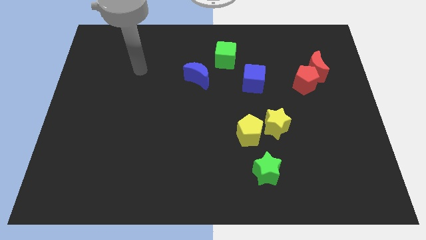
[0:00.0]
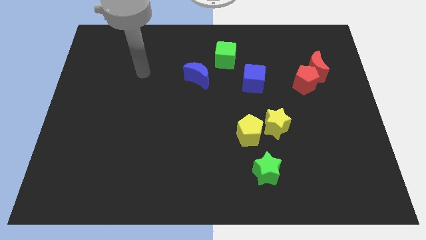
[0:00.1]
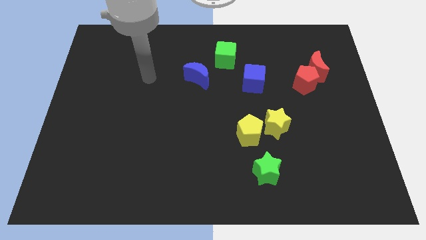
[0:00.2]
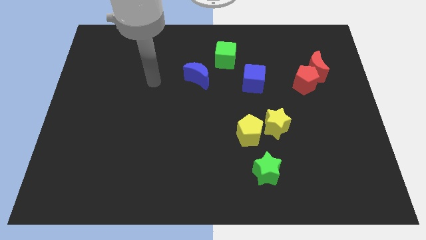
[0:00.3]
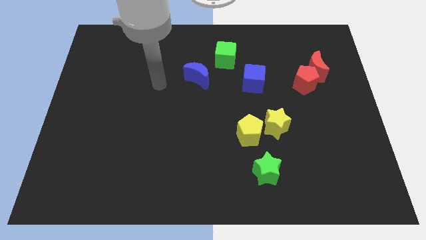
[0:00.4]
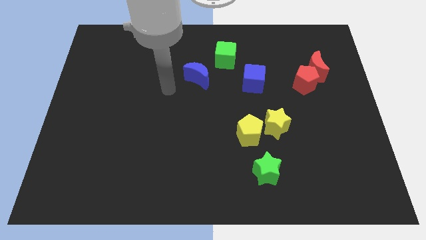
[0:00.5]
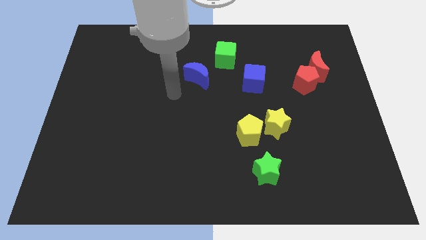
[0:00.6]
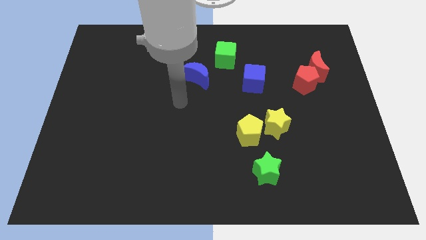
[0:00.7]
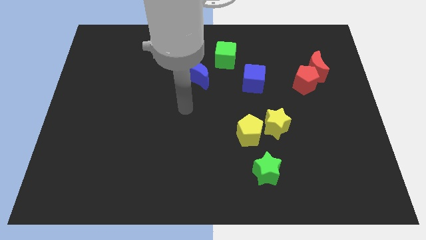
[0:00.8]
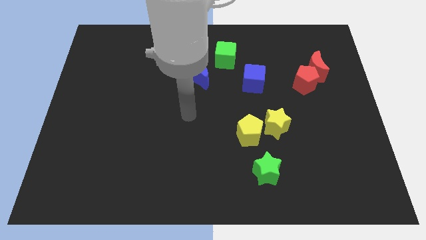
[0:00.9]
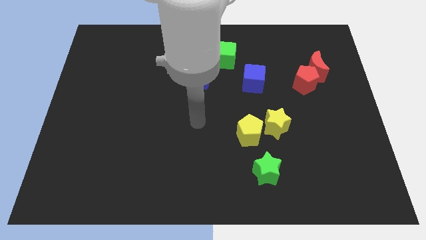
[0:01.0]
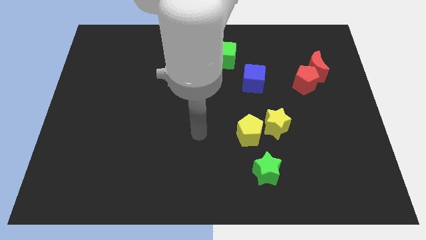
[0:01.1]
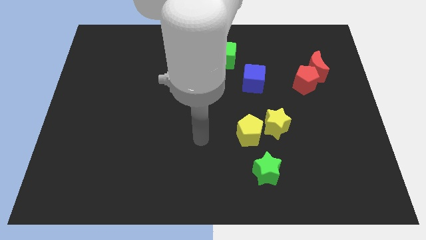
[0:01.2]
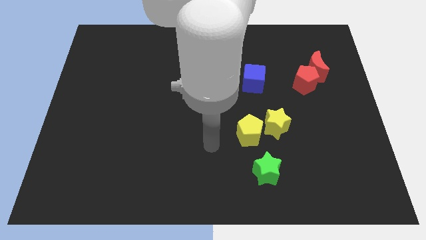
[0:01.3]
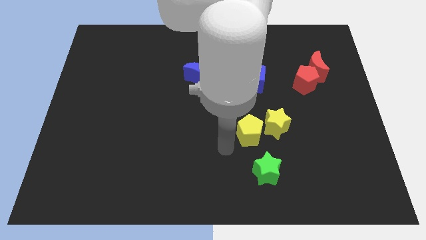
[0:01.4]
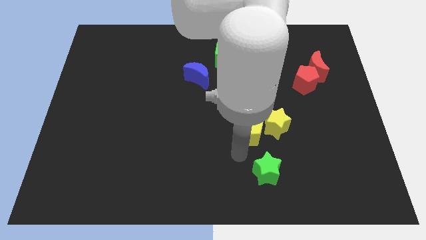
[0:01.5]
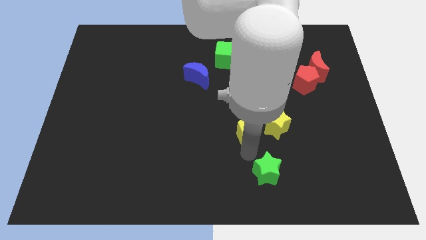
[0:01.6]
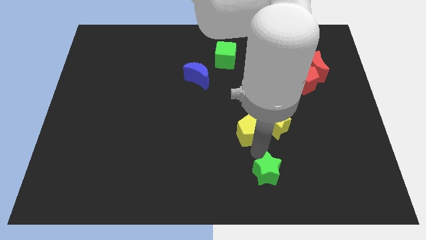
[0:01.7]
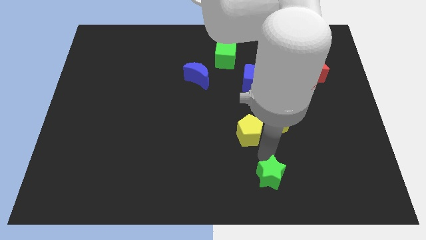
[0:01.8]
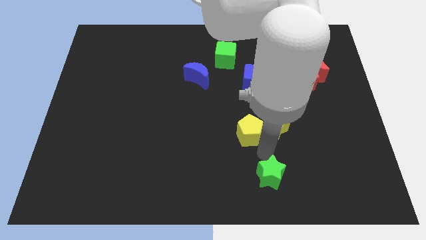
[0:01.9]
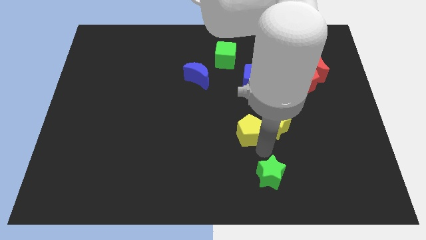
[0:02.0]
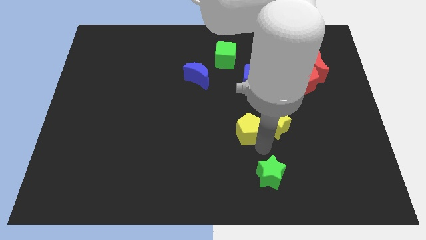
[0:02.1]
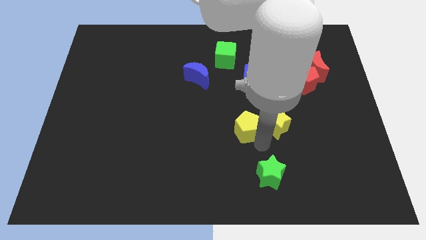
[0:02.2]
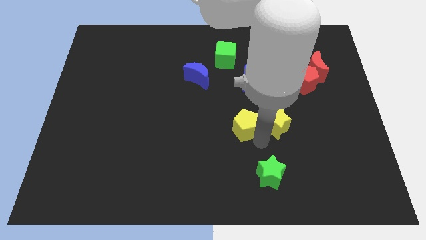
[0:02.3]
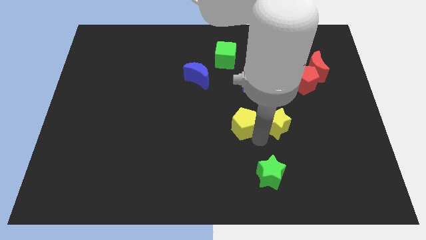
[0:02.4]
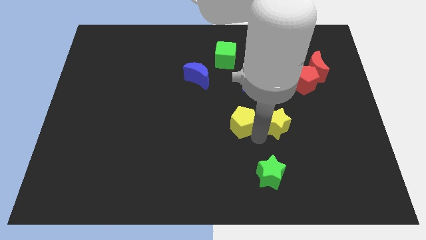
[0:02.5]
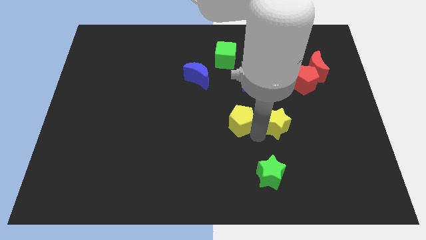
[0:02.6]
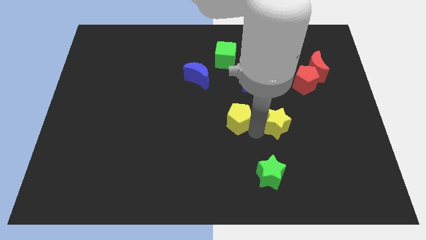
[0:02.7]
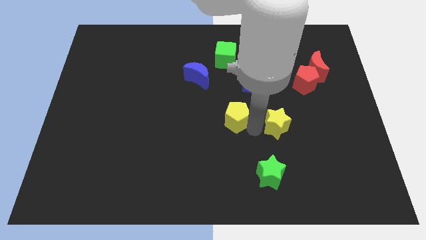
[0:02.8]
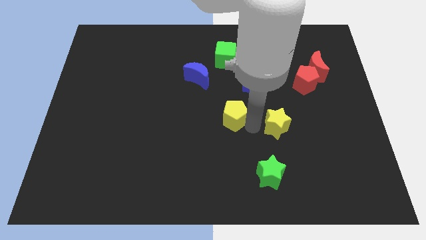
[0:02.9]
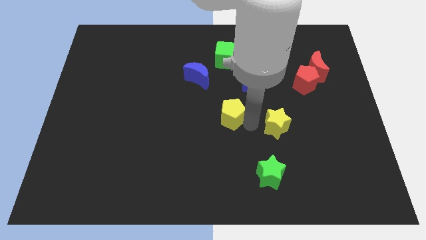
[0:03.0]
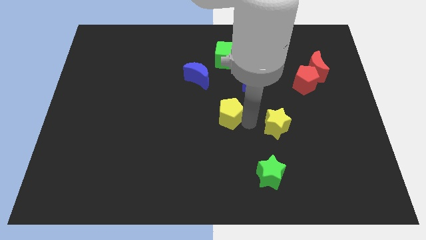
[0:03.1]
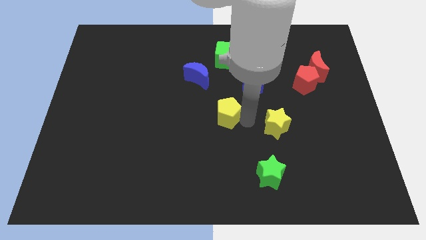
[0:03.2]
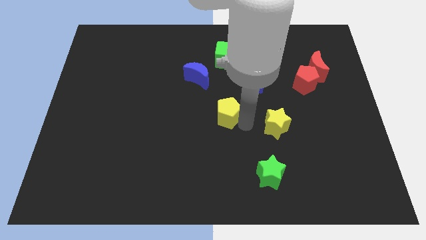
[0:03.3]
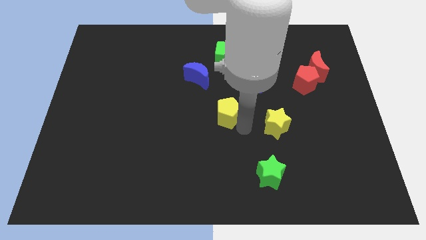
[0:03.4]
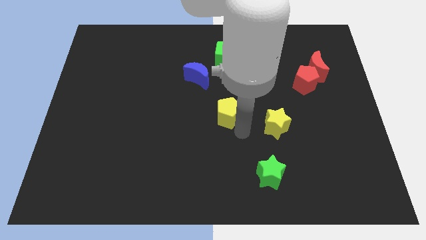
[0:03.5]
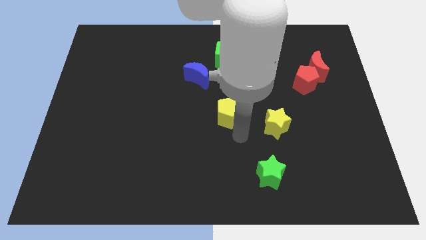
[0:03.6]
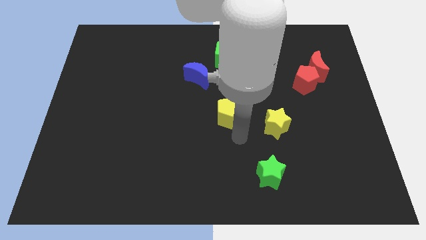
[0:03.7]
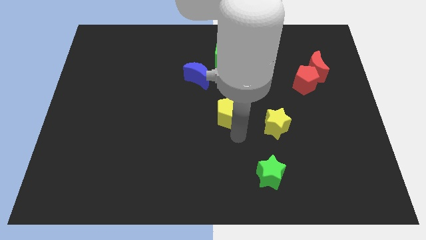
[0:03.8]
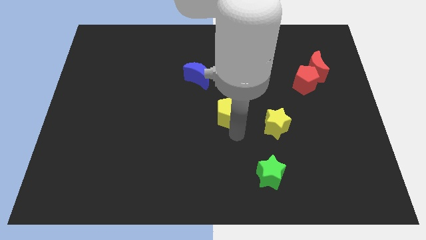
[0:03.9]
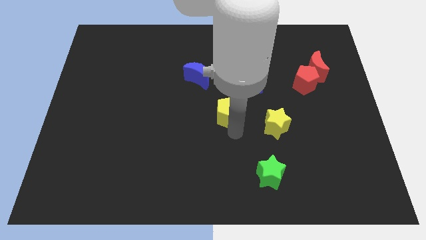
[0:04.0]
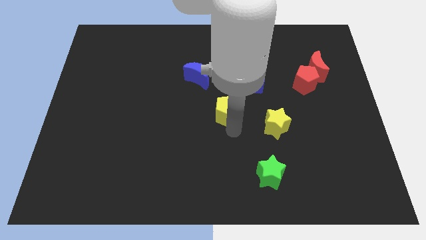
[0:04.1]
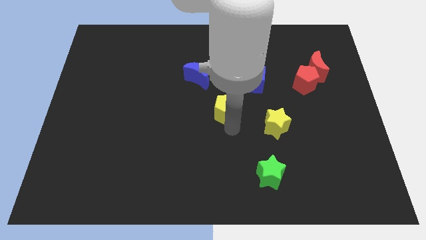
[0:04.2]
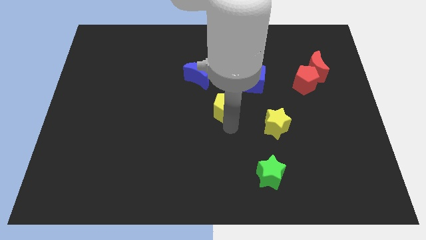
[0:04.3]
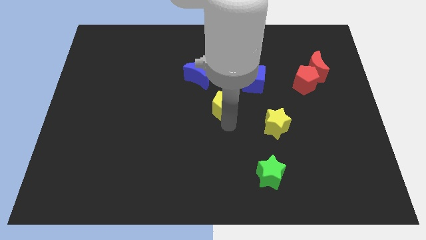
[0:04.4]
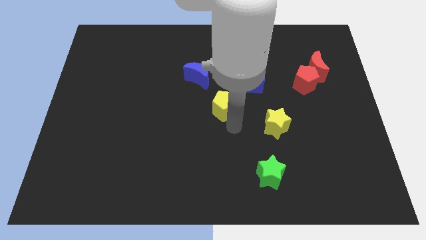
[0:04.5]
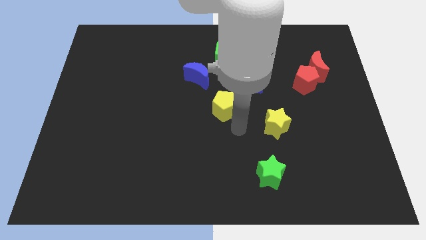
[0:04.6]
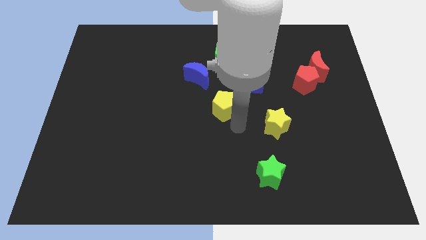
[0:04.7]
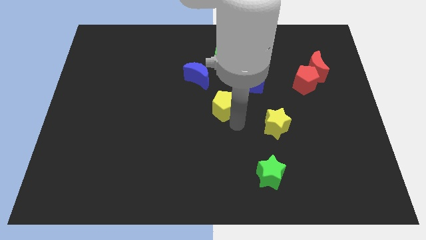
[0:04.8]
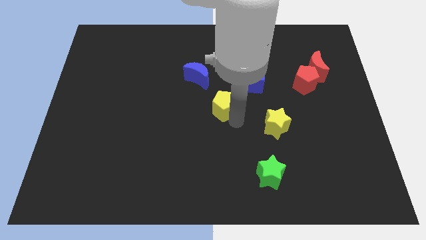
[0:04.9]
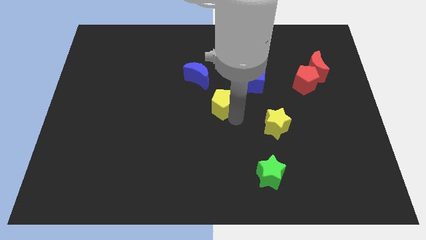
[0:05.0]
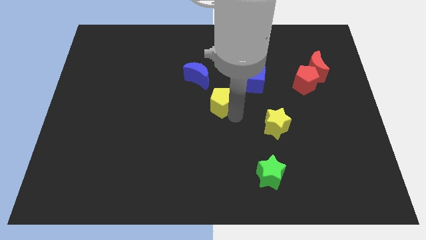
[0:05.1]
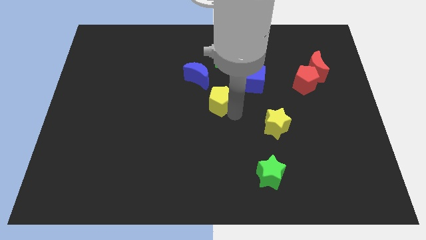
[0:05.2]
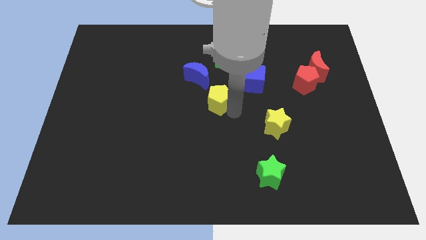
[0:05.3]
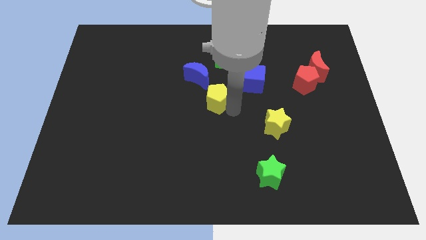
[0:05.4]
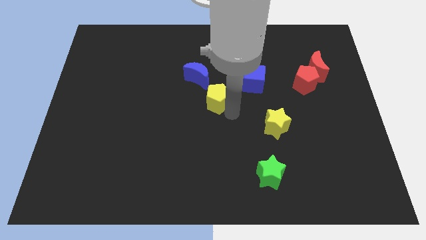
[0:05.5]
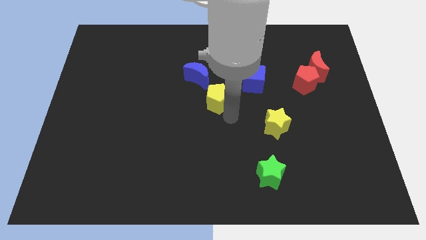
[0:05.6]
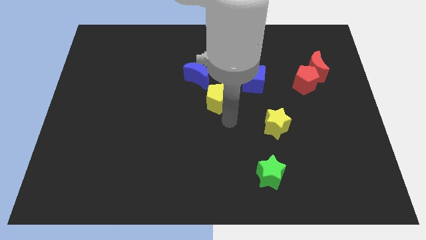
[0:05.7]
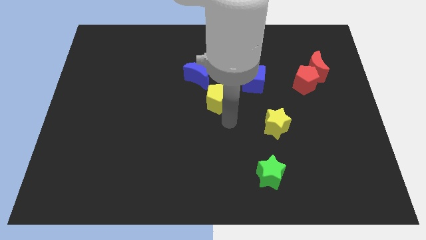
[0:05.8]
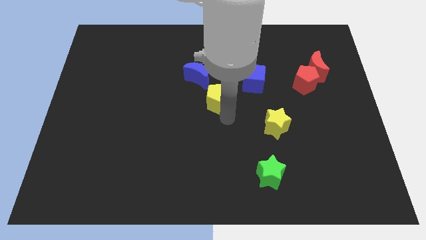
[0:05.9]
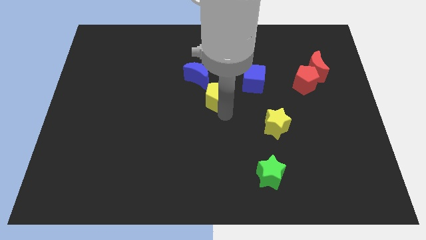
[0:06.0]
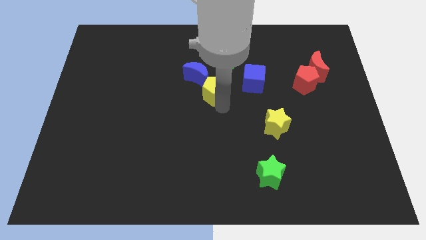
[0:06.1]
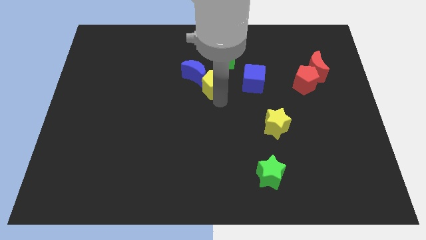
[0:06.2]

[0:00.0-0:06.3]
move the yellow pentagon close to the blue moon

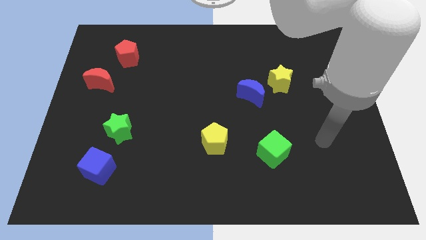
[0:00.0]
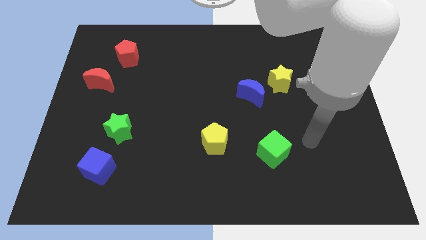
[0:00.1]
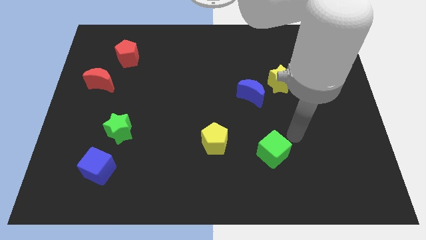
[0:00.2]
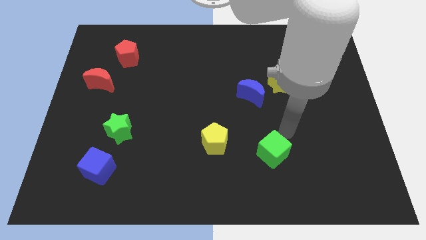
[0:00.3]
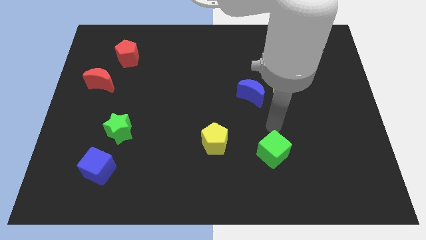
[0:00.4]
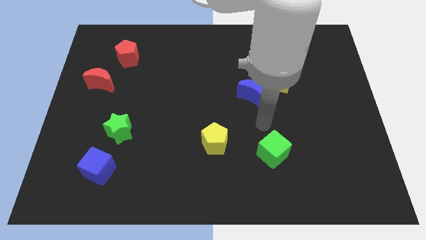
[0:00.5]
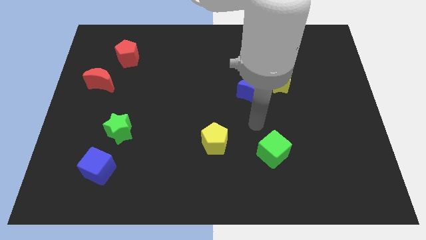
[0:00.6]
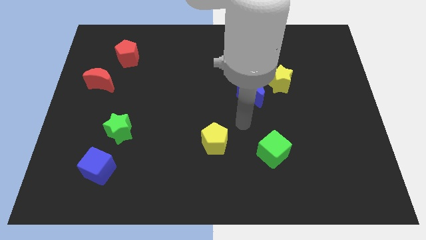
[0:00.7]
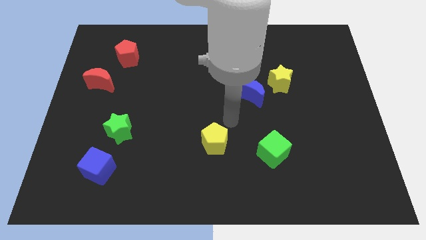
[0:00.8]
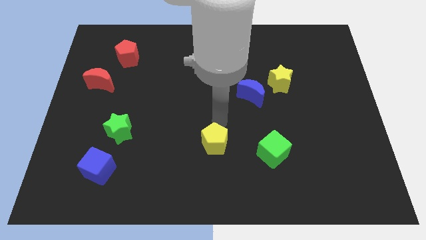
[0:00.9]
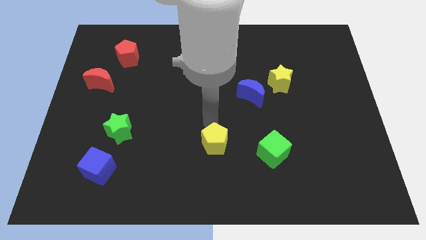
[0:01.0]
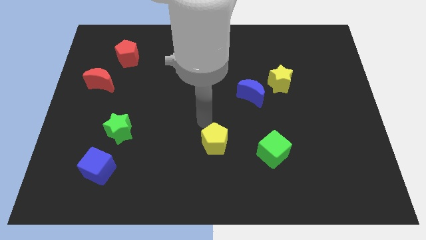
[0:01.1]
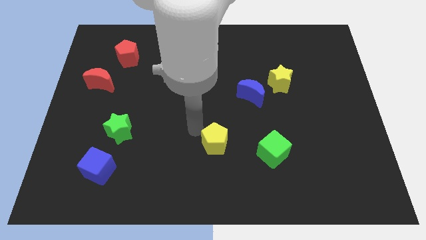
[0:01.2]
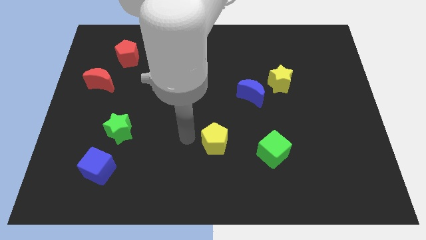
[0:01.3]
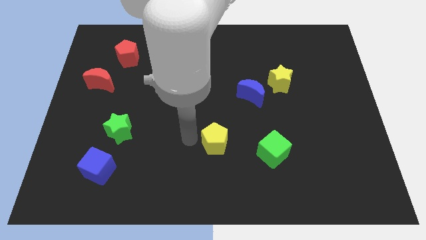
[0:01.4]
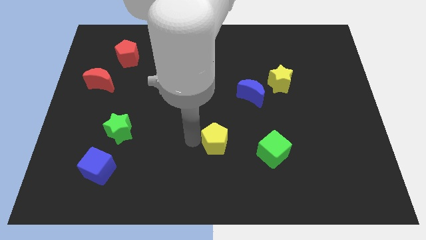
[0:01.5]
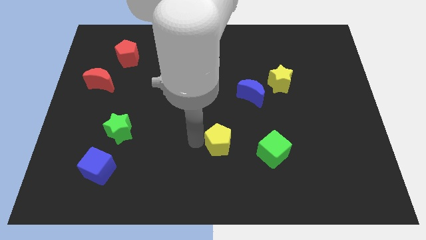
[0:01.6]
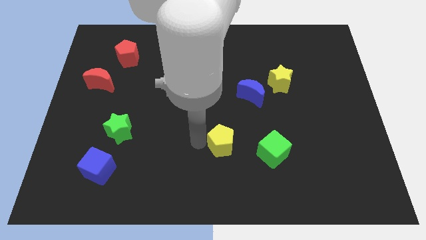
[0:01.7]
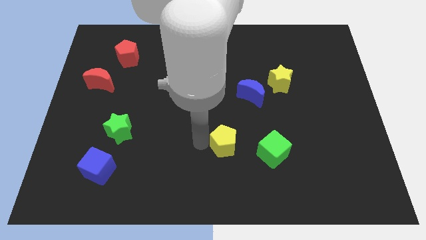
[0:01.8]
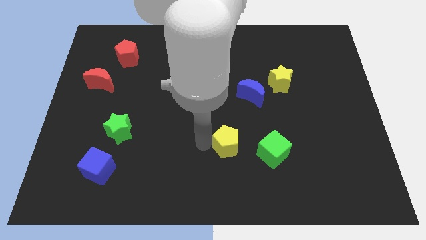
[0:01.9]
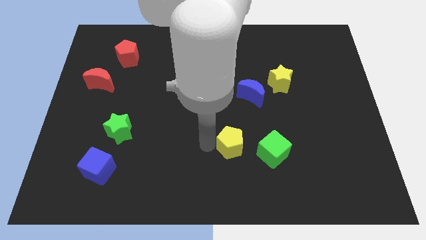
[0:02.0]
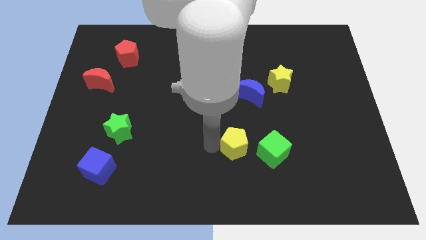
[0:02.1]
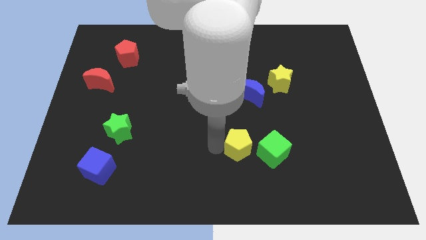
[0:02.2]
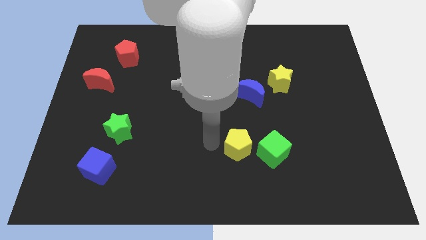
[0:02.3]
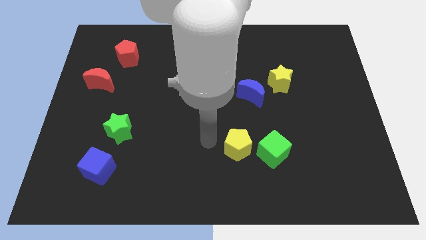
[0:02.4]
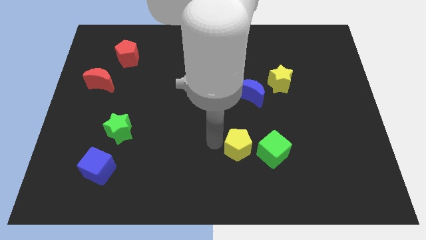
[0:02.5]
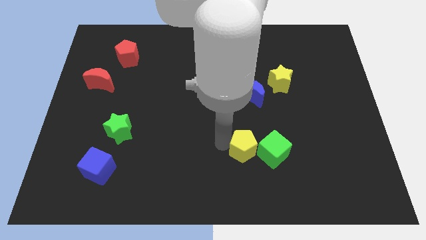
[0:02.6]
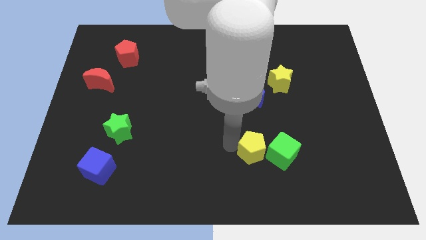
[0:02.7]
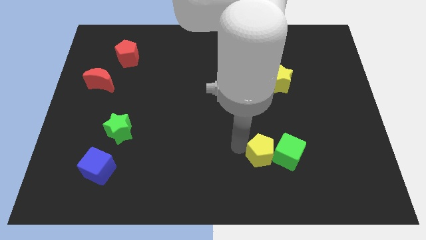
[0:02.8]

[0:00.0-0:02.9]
put the yellow pentagon towards the green cube
